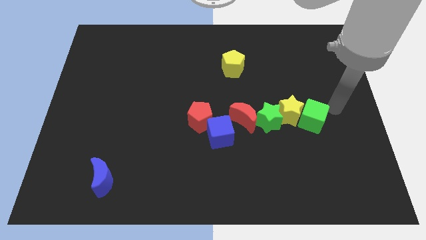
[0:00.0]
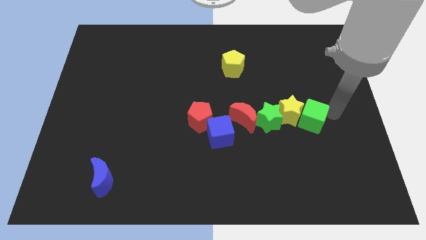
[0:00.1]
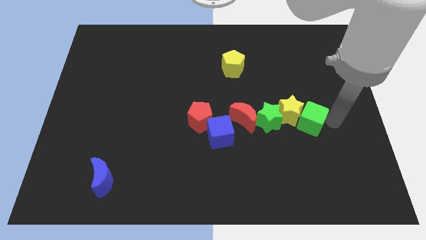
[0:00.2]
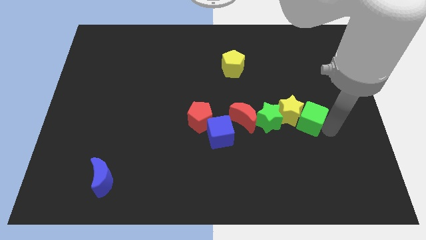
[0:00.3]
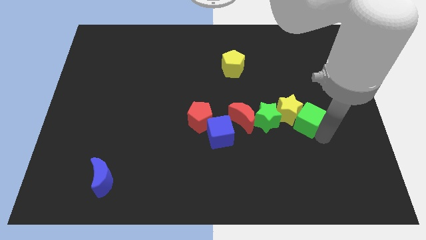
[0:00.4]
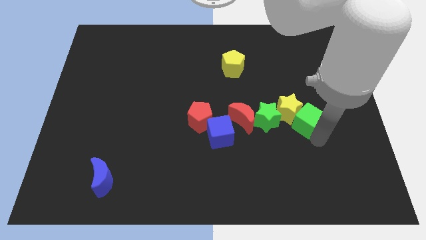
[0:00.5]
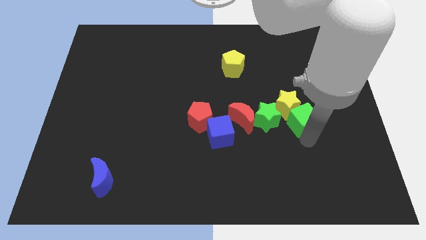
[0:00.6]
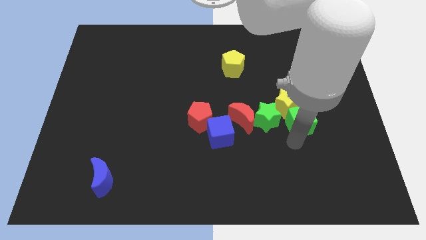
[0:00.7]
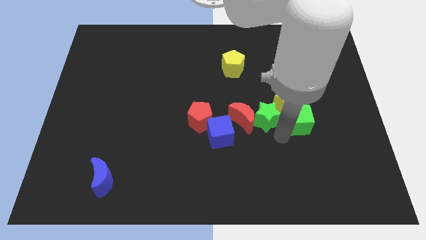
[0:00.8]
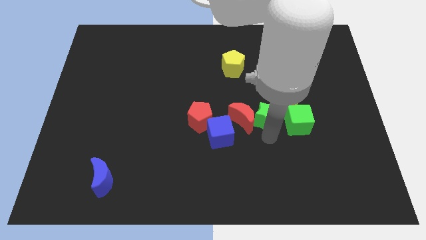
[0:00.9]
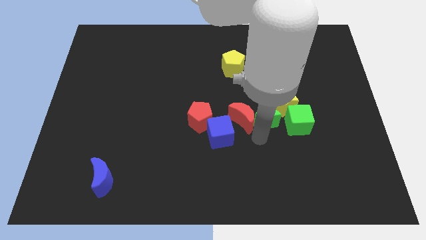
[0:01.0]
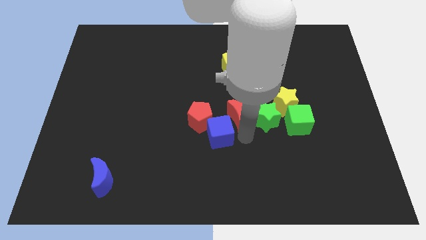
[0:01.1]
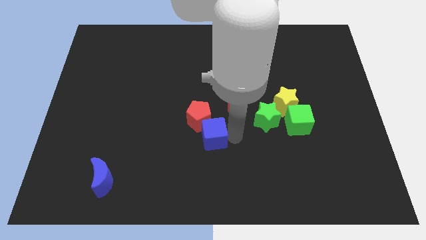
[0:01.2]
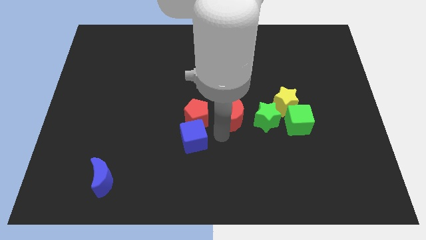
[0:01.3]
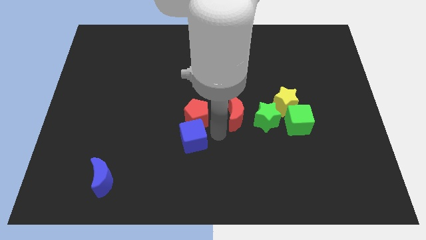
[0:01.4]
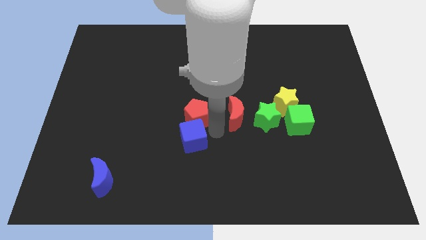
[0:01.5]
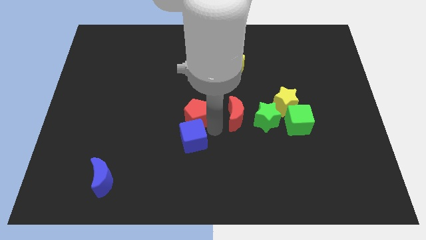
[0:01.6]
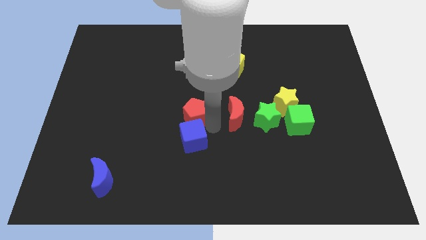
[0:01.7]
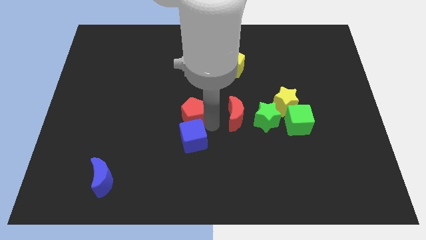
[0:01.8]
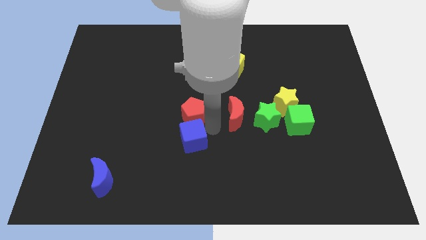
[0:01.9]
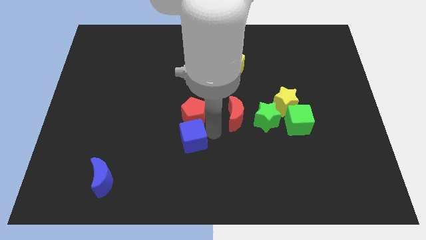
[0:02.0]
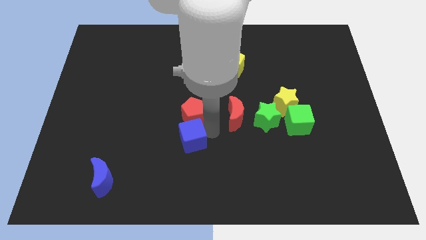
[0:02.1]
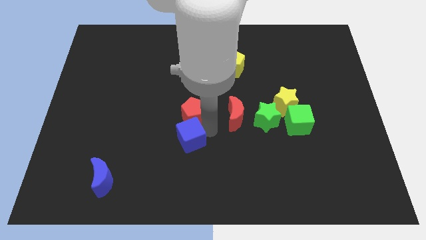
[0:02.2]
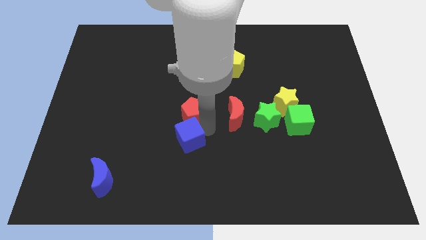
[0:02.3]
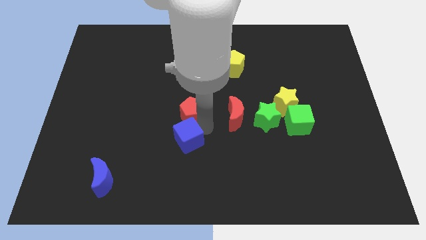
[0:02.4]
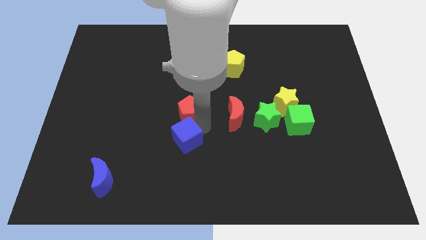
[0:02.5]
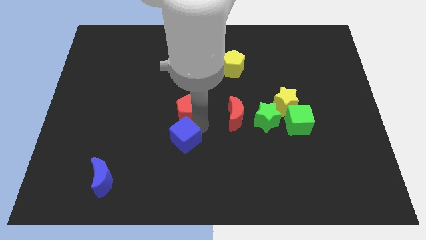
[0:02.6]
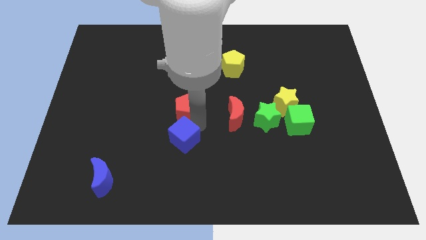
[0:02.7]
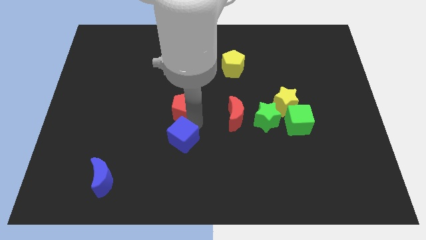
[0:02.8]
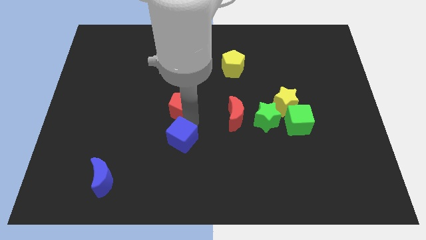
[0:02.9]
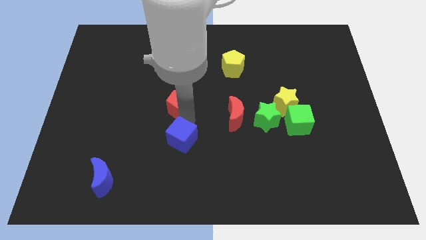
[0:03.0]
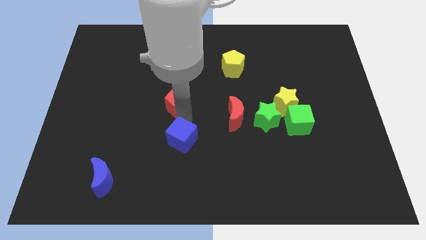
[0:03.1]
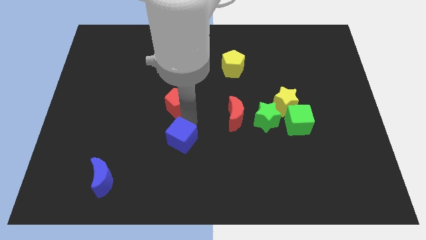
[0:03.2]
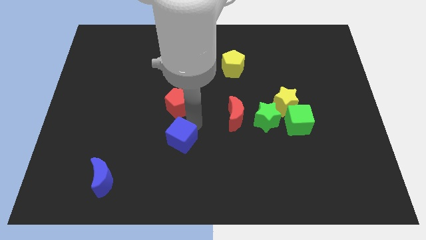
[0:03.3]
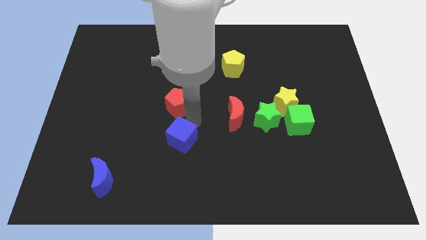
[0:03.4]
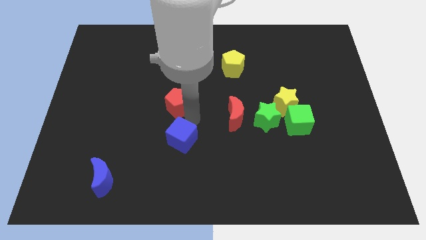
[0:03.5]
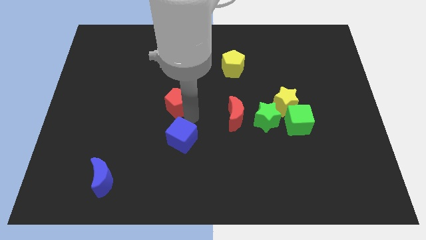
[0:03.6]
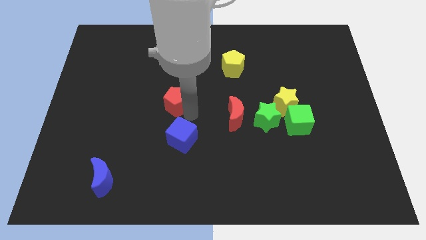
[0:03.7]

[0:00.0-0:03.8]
slightly push the red pentagon up and left diagonally

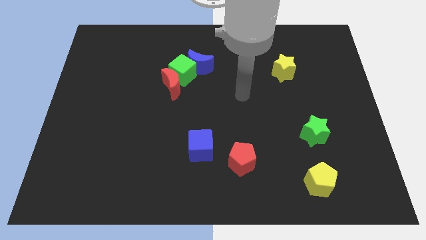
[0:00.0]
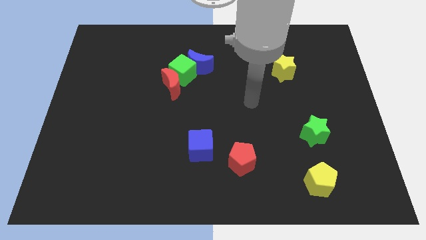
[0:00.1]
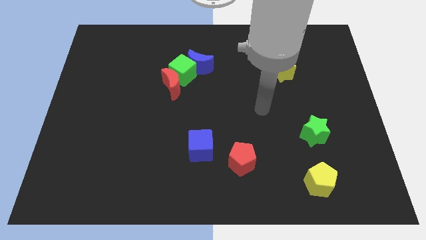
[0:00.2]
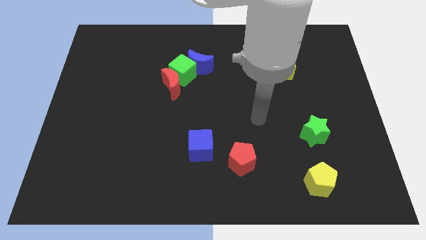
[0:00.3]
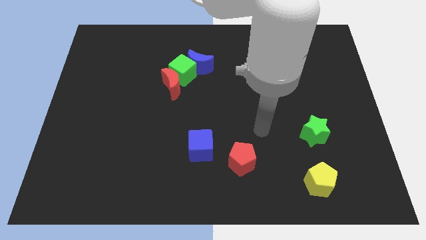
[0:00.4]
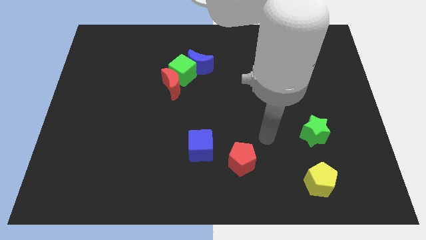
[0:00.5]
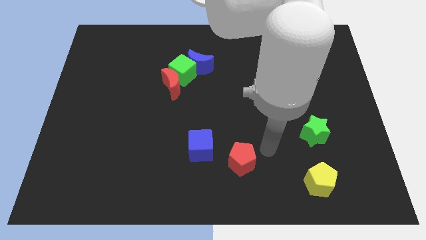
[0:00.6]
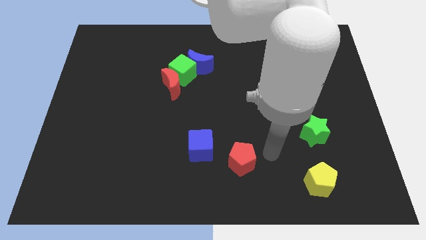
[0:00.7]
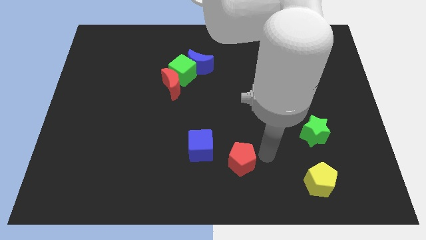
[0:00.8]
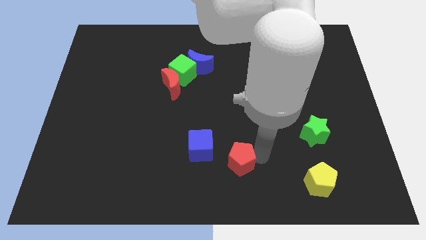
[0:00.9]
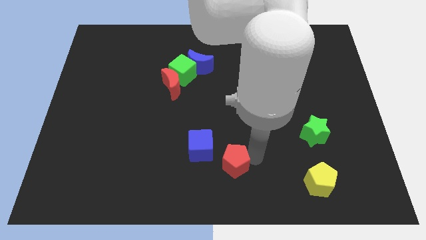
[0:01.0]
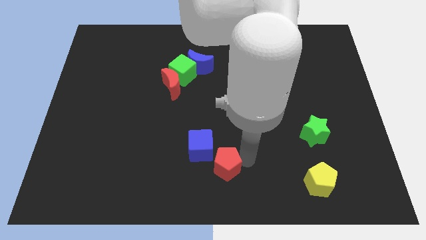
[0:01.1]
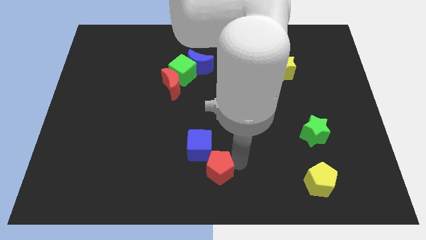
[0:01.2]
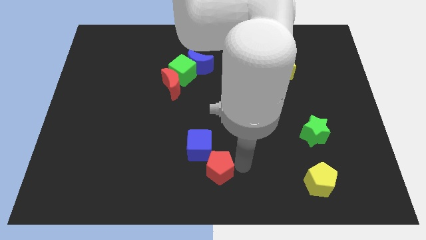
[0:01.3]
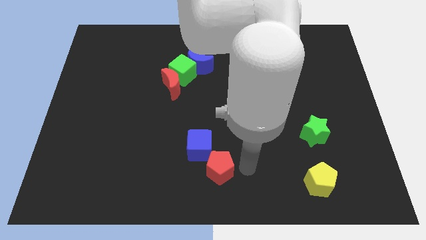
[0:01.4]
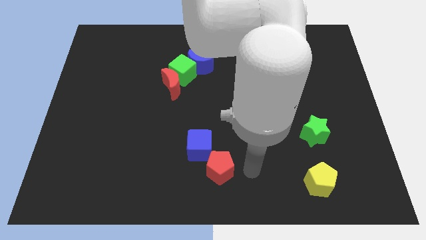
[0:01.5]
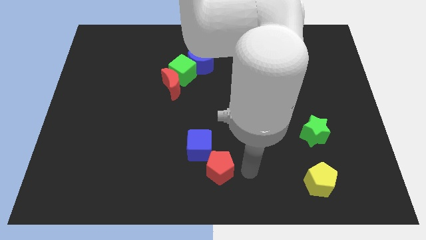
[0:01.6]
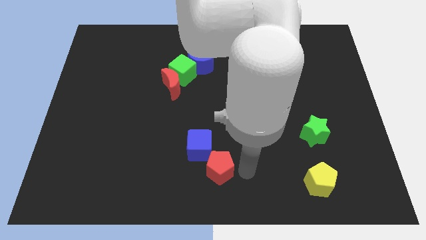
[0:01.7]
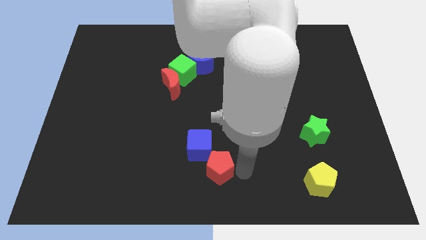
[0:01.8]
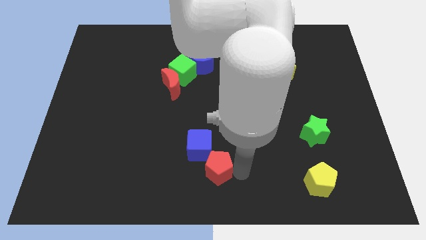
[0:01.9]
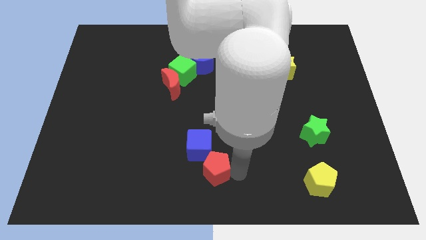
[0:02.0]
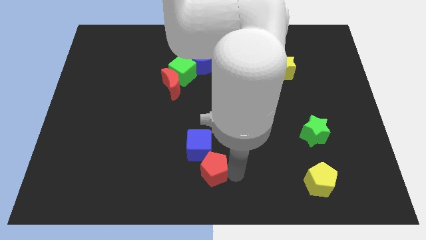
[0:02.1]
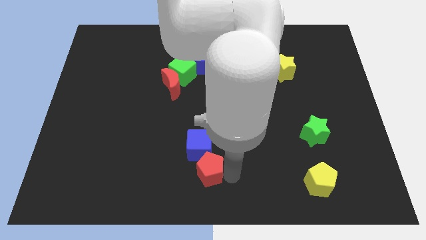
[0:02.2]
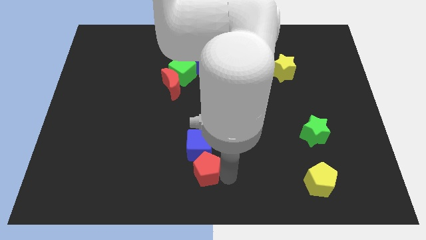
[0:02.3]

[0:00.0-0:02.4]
push the red pentagon left somewhat

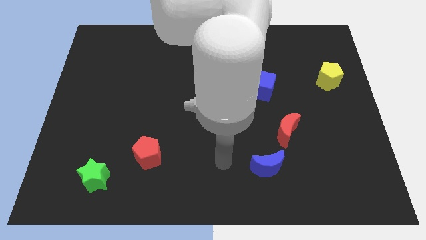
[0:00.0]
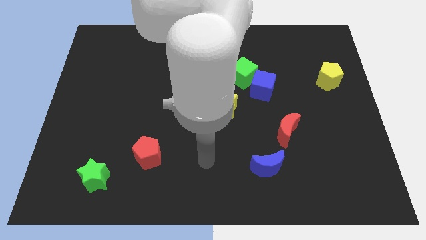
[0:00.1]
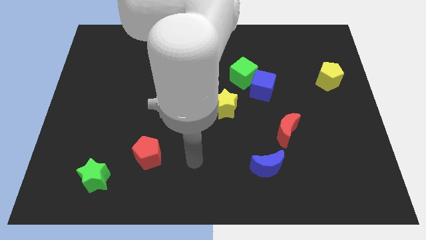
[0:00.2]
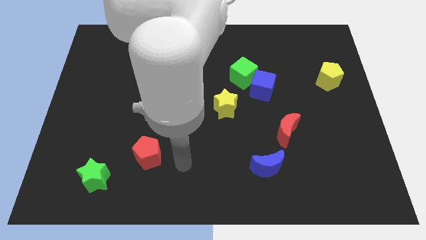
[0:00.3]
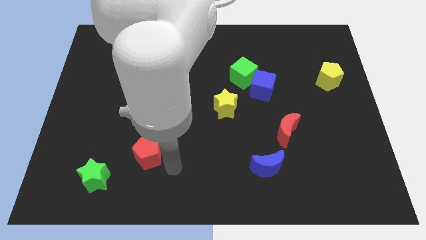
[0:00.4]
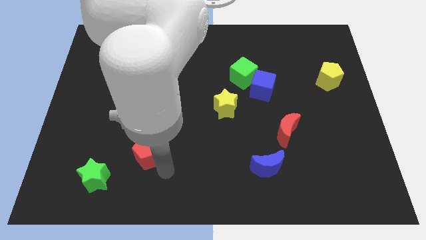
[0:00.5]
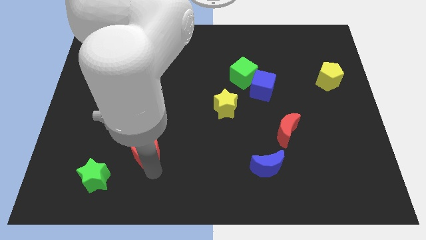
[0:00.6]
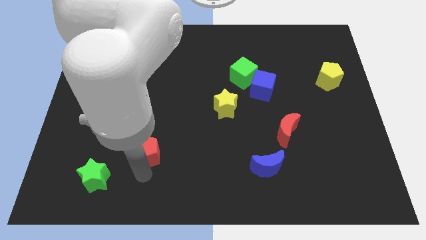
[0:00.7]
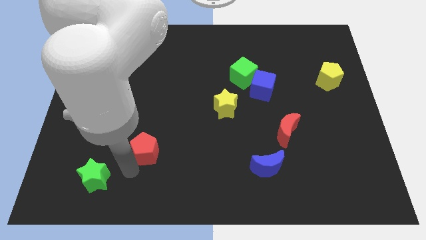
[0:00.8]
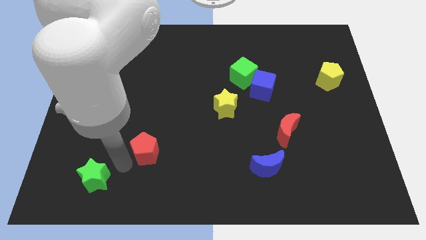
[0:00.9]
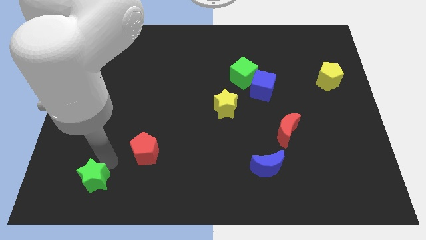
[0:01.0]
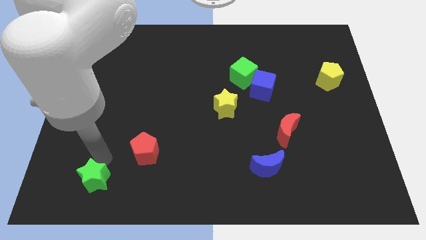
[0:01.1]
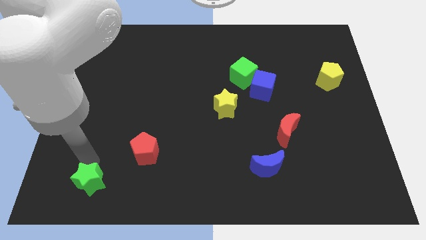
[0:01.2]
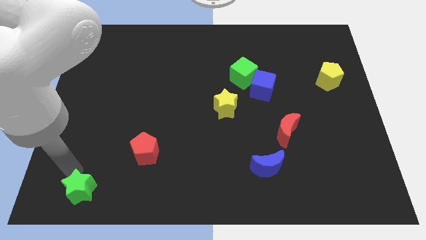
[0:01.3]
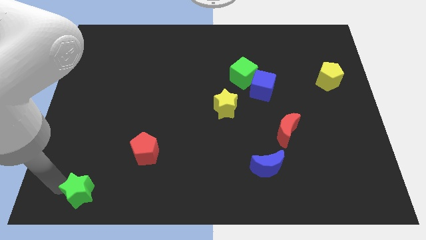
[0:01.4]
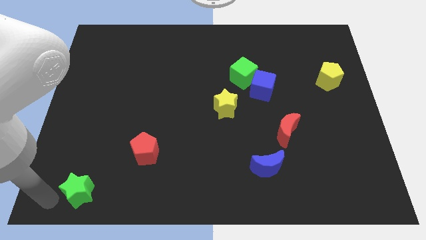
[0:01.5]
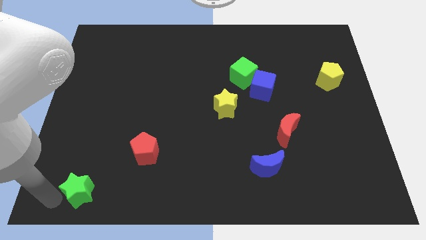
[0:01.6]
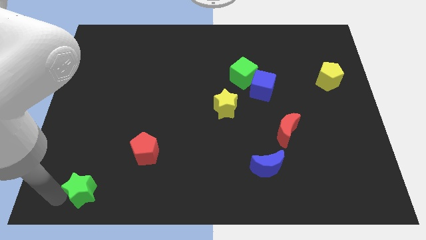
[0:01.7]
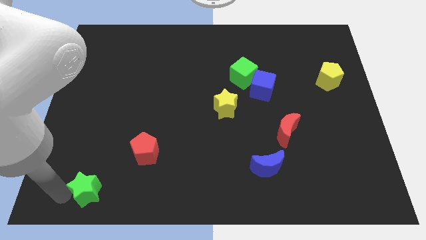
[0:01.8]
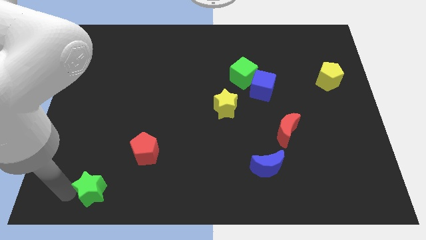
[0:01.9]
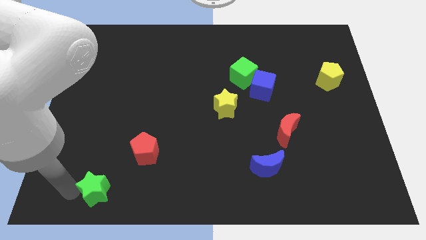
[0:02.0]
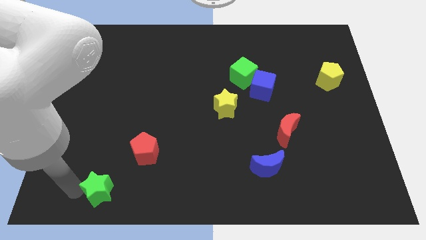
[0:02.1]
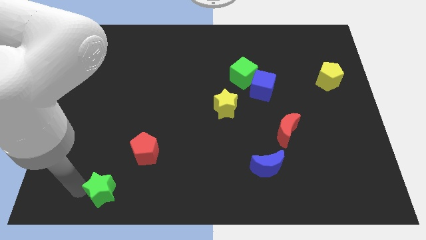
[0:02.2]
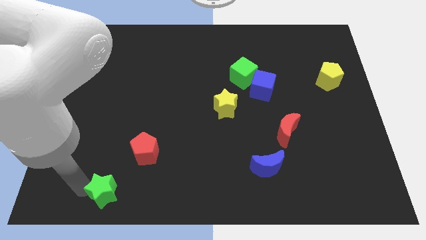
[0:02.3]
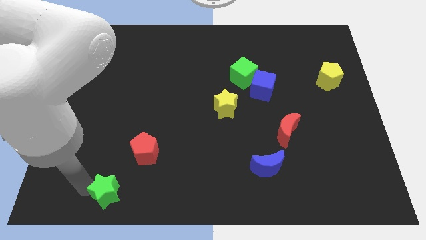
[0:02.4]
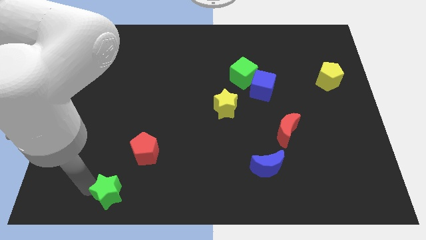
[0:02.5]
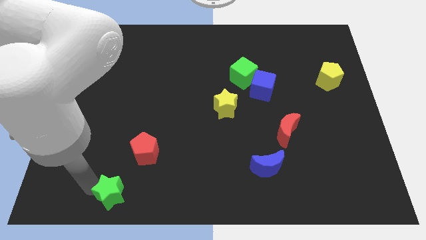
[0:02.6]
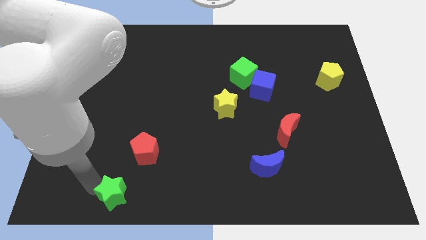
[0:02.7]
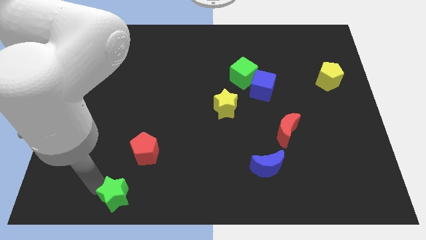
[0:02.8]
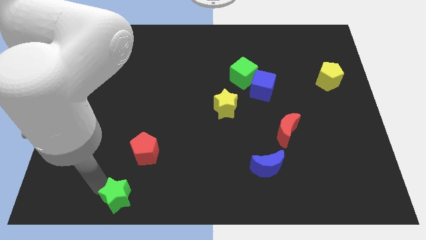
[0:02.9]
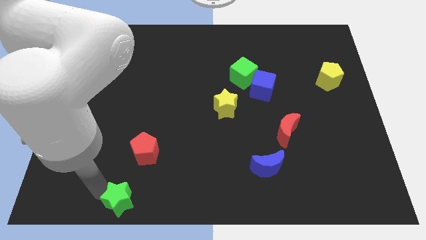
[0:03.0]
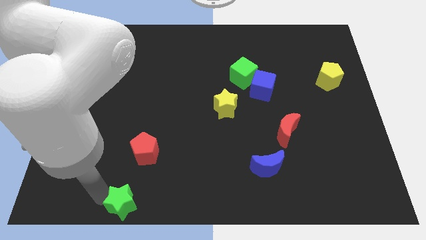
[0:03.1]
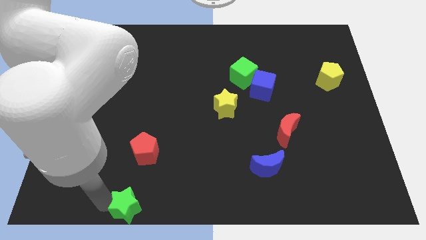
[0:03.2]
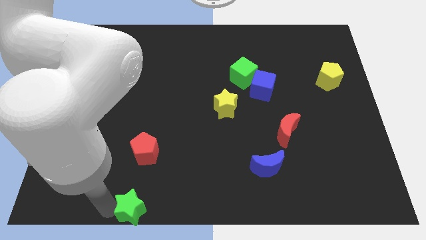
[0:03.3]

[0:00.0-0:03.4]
slide the green star a bit right
